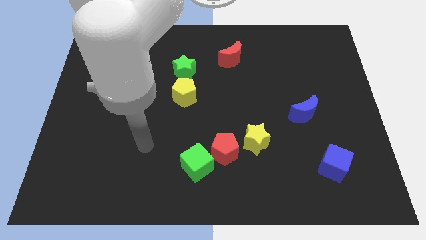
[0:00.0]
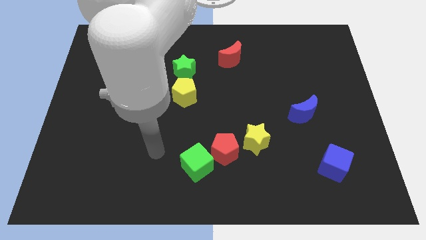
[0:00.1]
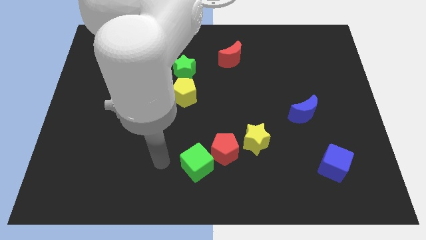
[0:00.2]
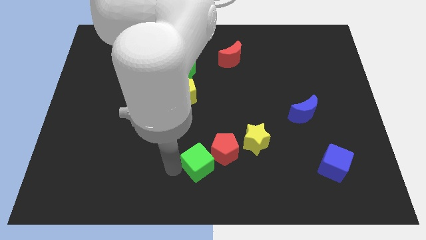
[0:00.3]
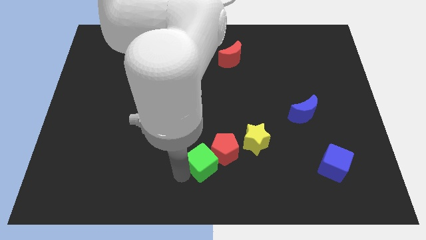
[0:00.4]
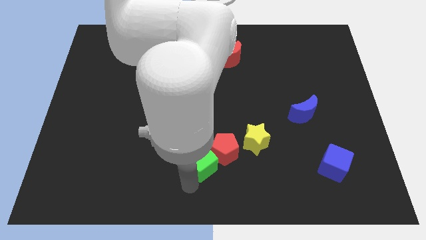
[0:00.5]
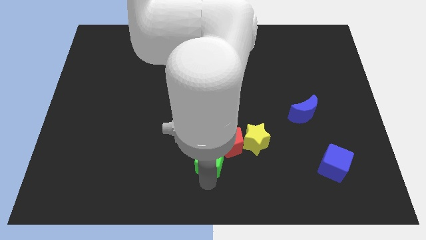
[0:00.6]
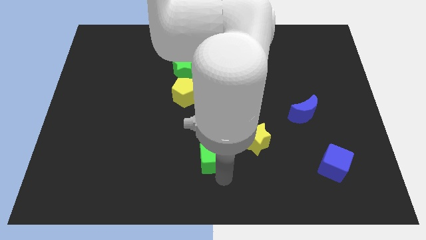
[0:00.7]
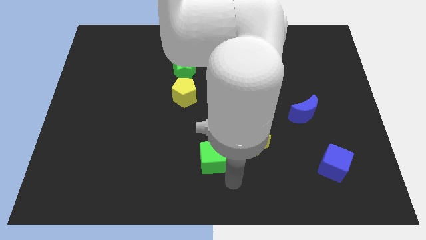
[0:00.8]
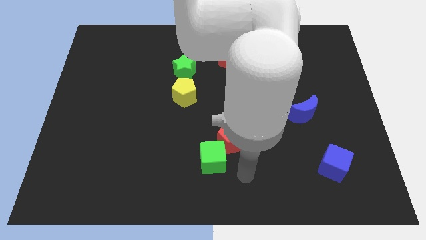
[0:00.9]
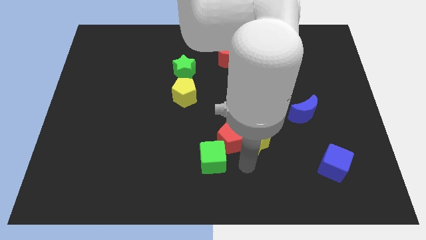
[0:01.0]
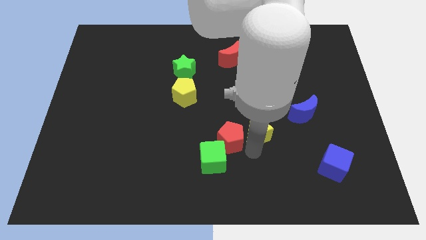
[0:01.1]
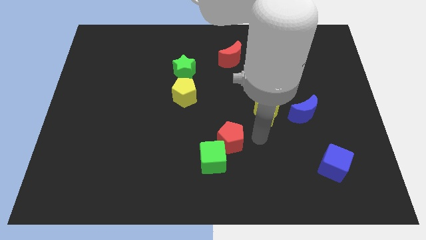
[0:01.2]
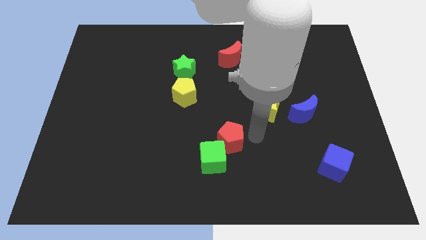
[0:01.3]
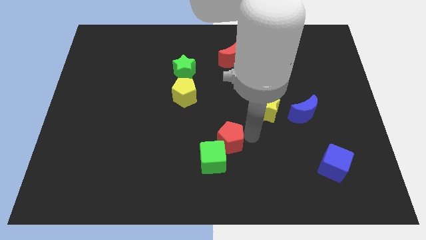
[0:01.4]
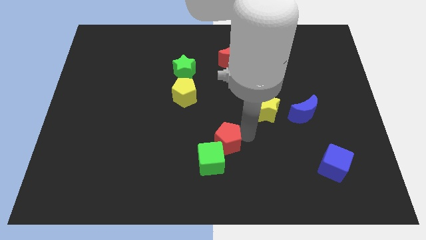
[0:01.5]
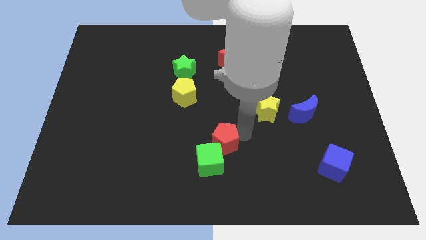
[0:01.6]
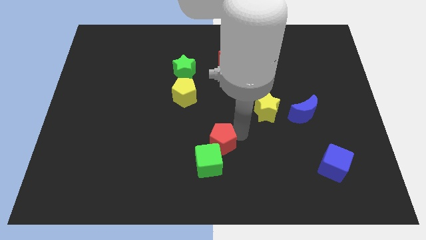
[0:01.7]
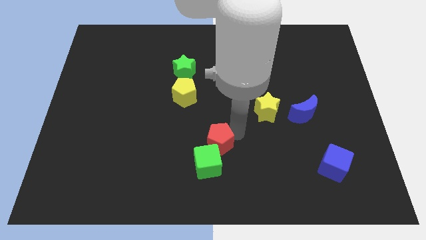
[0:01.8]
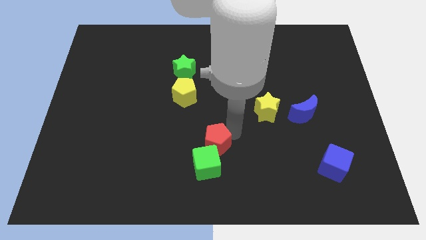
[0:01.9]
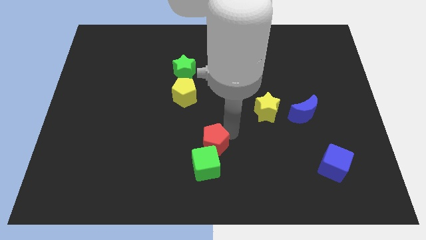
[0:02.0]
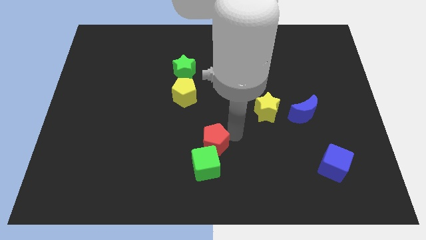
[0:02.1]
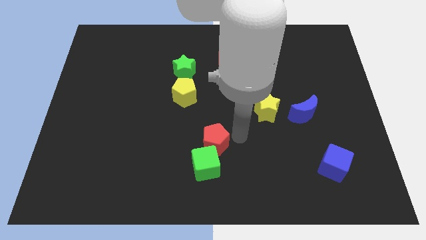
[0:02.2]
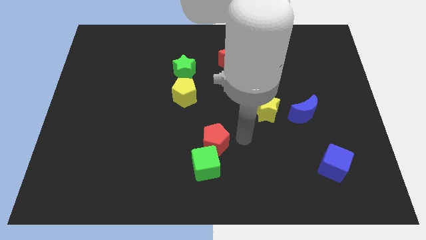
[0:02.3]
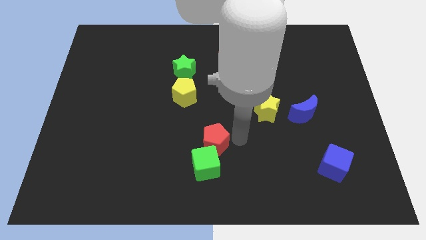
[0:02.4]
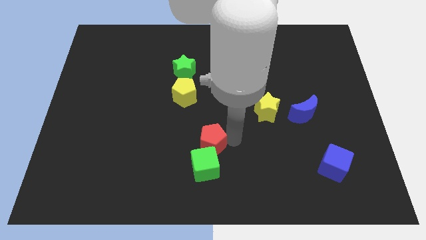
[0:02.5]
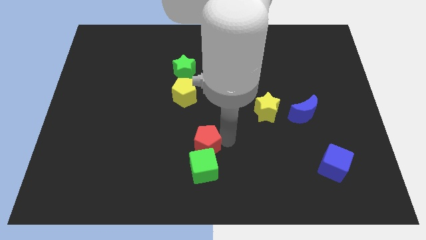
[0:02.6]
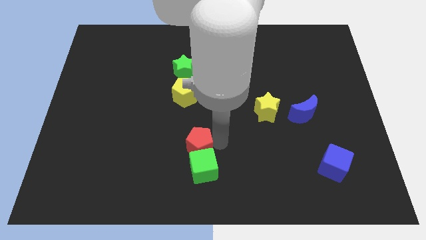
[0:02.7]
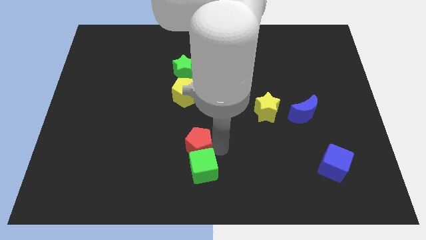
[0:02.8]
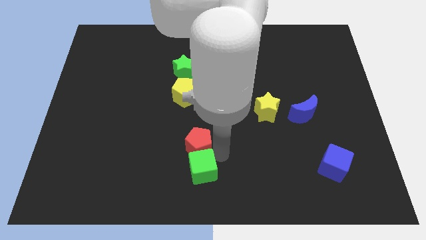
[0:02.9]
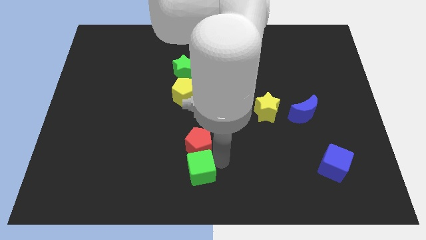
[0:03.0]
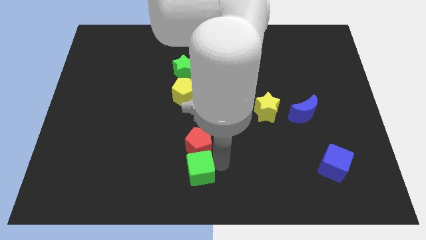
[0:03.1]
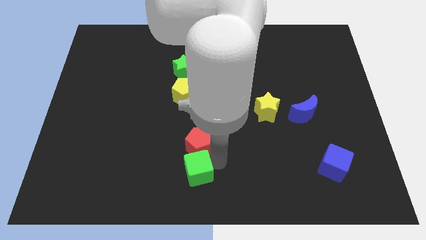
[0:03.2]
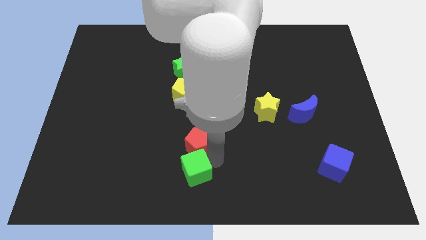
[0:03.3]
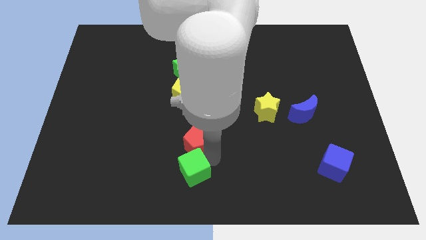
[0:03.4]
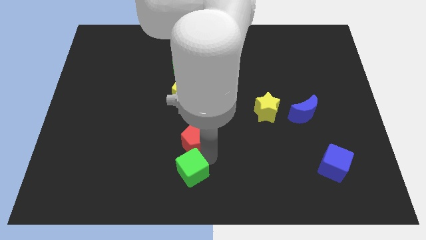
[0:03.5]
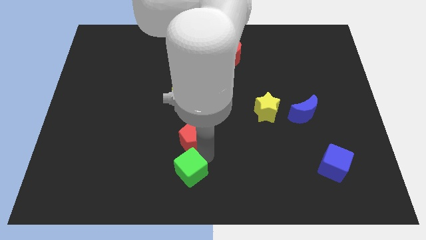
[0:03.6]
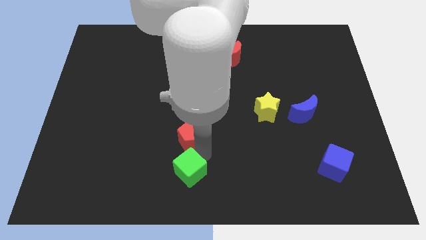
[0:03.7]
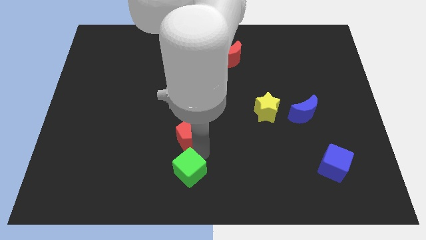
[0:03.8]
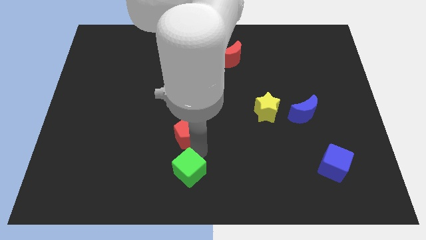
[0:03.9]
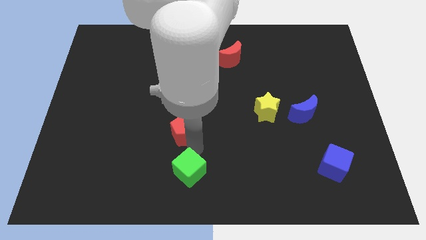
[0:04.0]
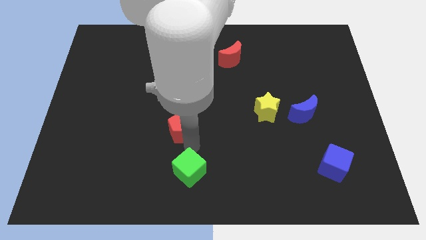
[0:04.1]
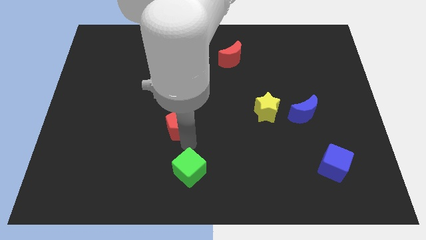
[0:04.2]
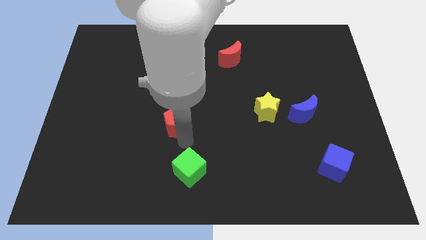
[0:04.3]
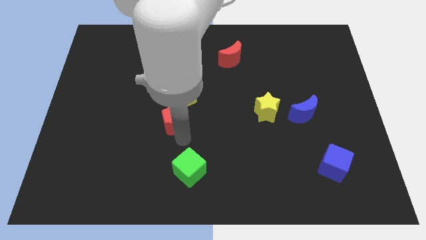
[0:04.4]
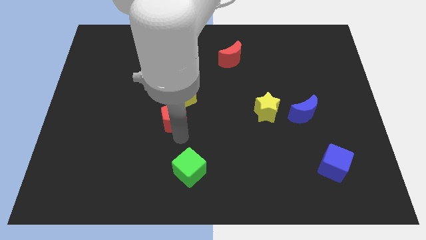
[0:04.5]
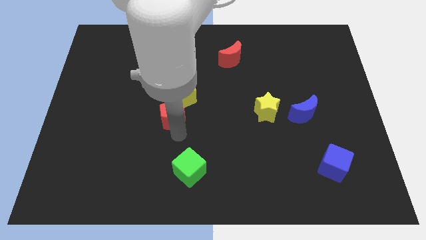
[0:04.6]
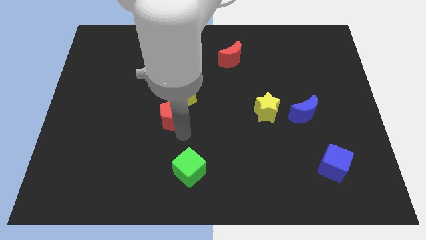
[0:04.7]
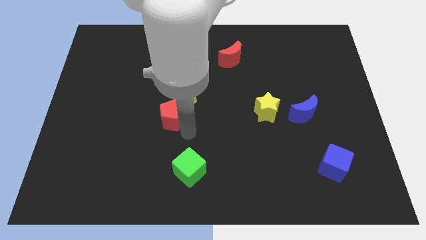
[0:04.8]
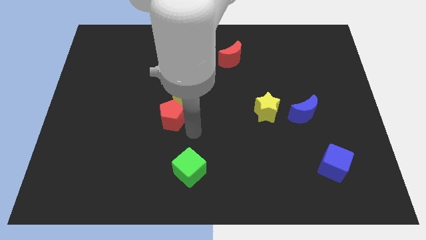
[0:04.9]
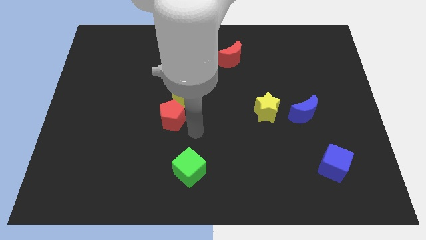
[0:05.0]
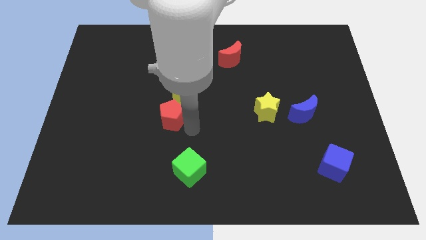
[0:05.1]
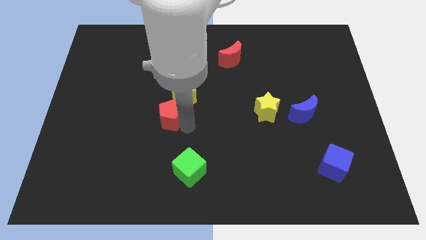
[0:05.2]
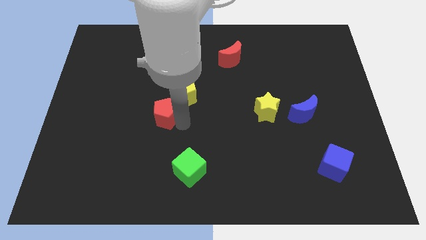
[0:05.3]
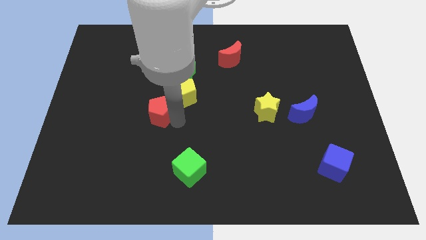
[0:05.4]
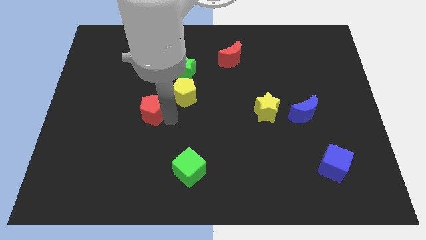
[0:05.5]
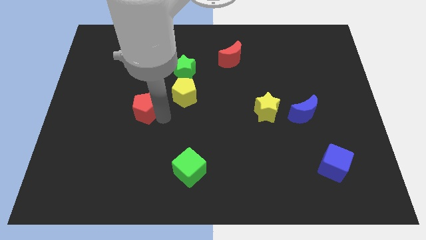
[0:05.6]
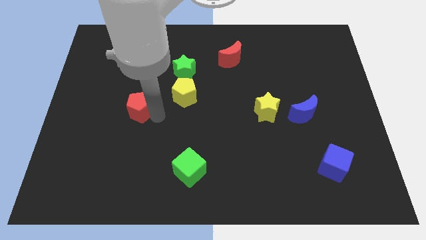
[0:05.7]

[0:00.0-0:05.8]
move the red pentagon upwards and then to the left

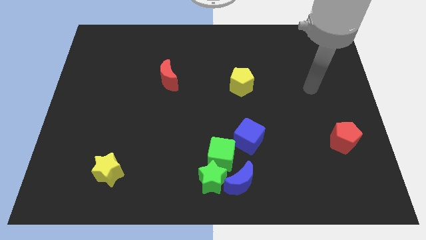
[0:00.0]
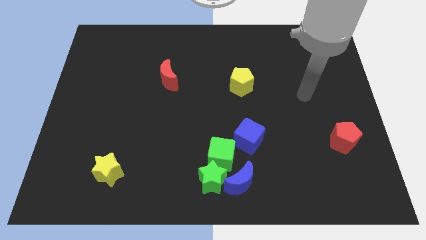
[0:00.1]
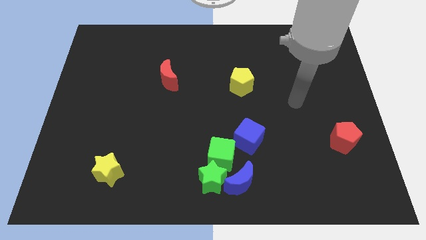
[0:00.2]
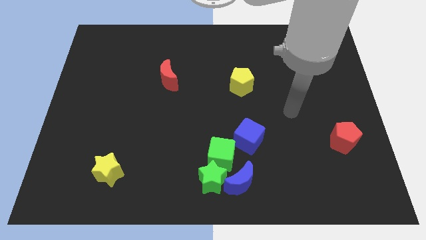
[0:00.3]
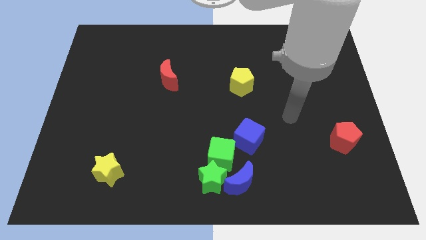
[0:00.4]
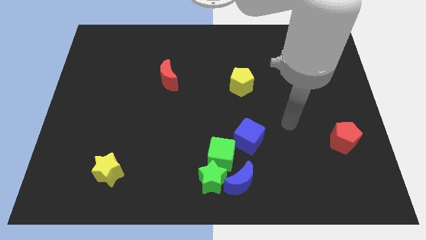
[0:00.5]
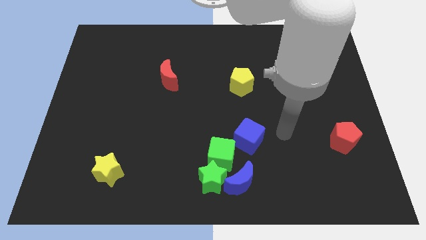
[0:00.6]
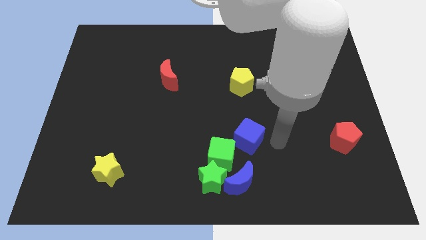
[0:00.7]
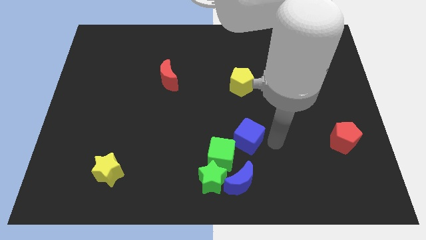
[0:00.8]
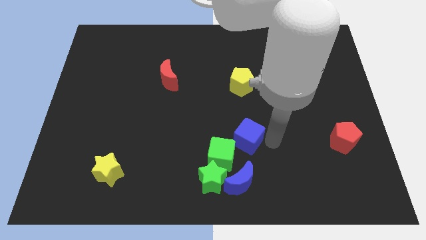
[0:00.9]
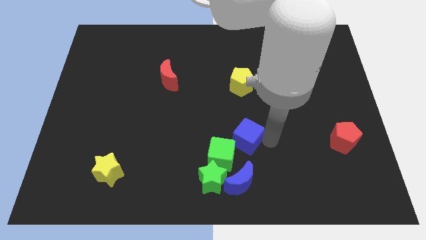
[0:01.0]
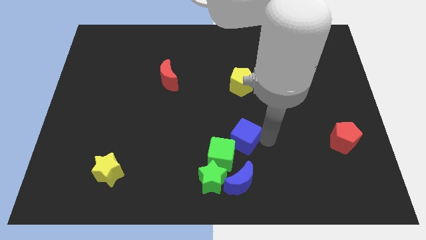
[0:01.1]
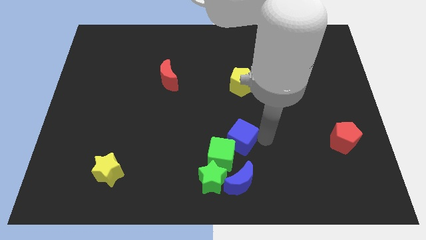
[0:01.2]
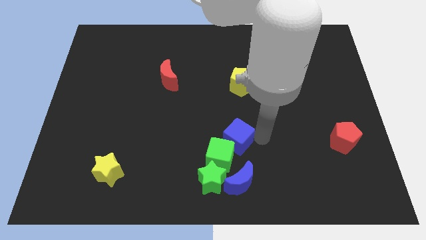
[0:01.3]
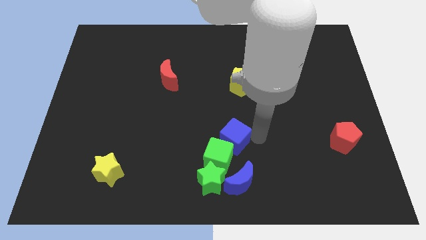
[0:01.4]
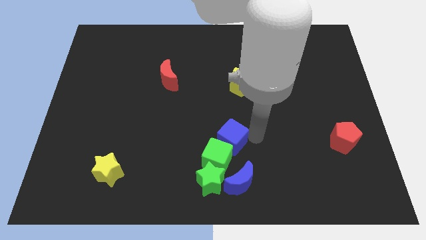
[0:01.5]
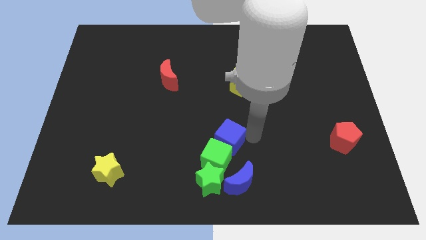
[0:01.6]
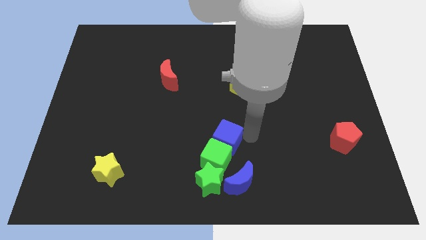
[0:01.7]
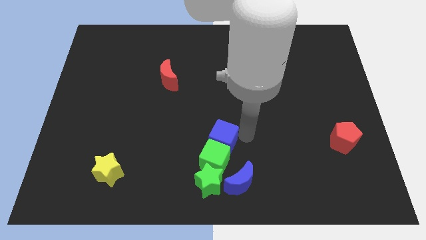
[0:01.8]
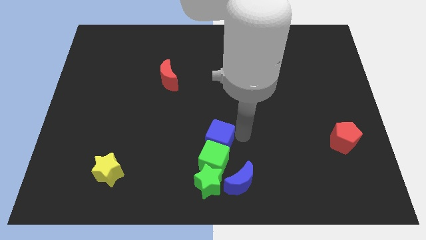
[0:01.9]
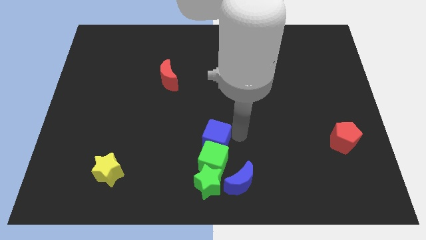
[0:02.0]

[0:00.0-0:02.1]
push the blue cube to the left somewhat
